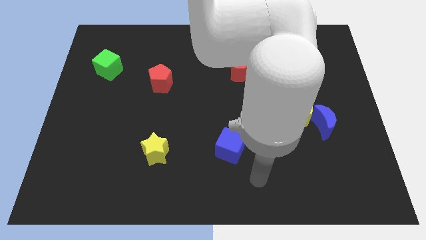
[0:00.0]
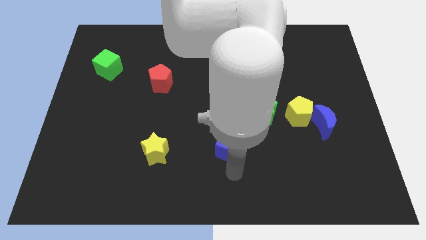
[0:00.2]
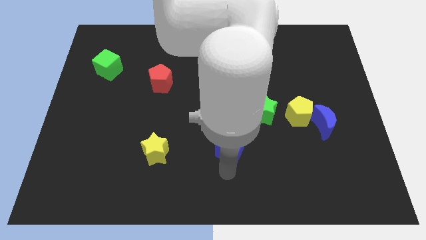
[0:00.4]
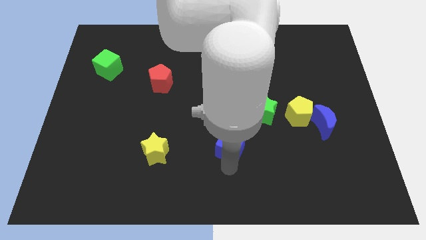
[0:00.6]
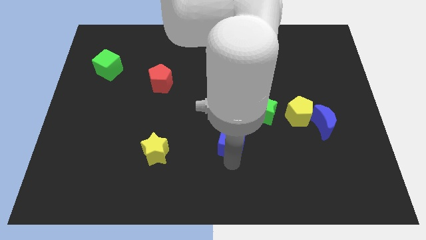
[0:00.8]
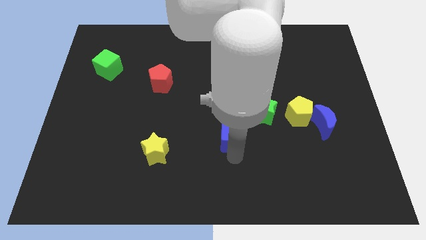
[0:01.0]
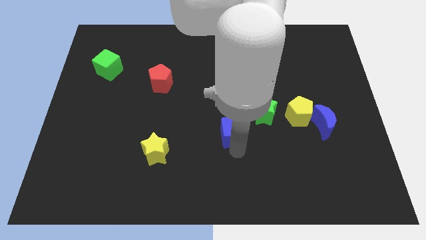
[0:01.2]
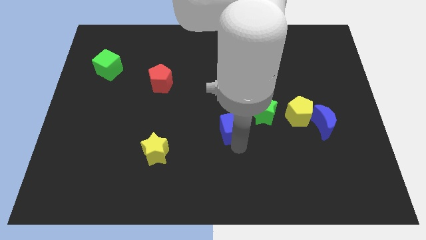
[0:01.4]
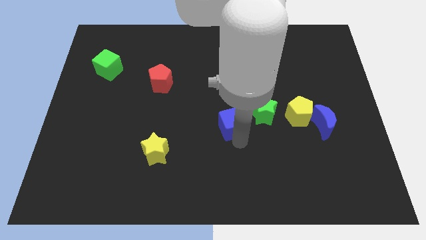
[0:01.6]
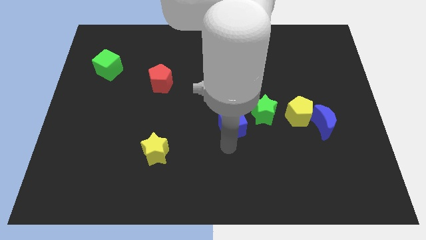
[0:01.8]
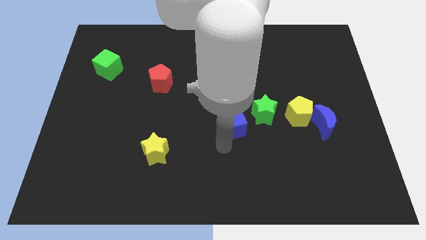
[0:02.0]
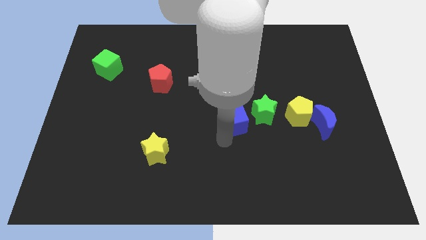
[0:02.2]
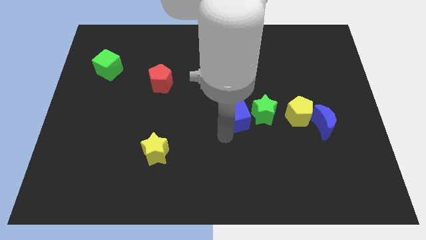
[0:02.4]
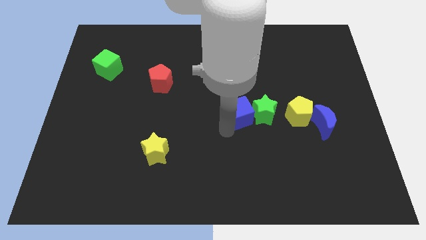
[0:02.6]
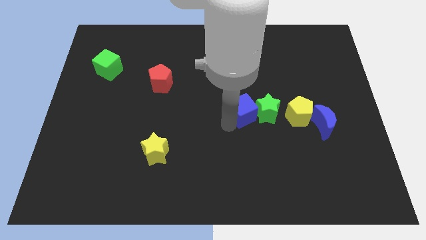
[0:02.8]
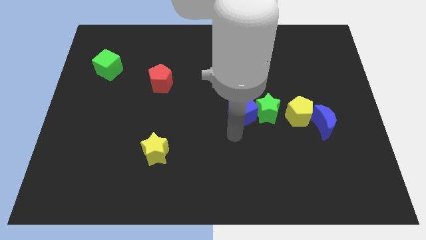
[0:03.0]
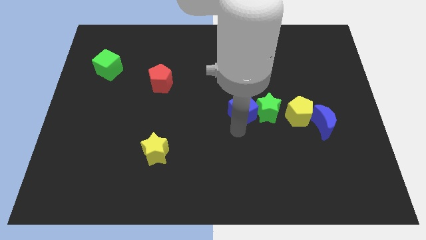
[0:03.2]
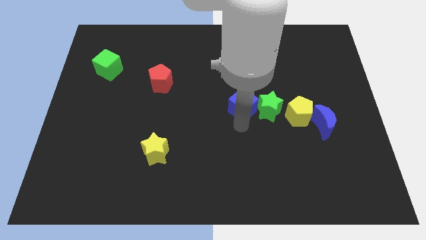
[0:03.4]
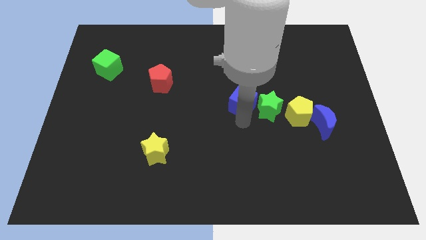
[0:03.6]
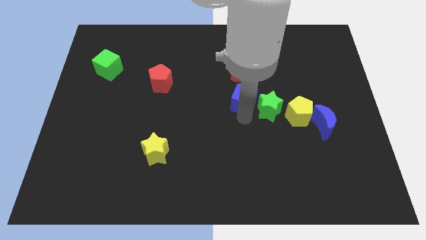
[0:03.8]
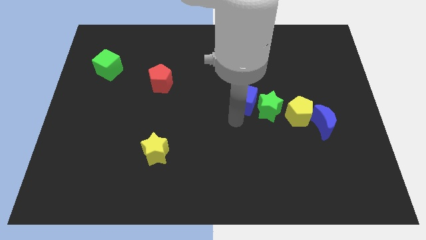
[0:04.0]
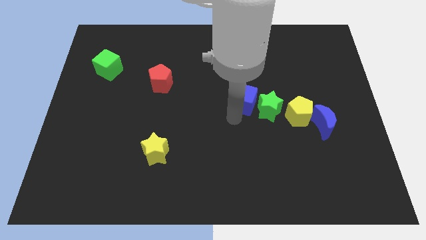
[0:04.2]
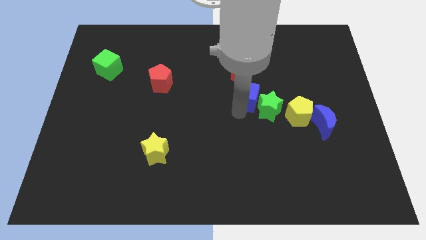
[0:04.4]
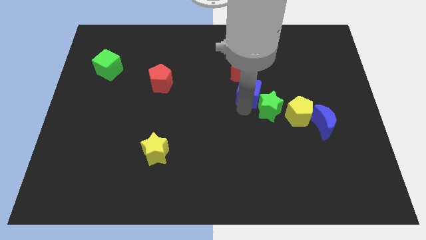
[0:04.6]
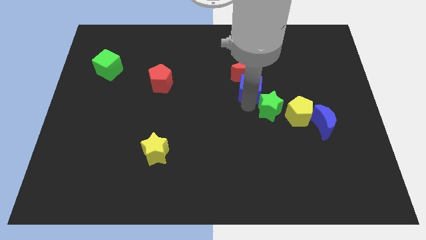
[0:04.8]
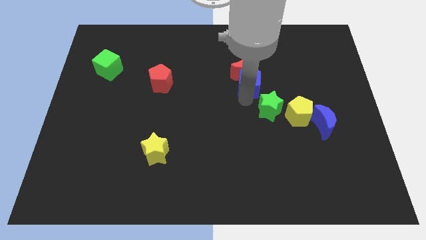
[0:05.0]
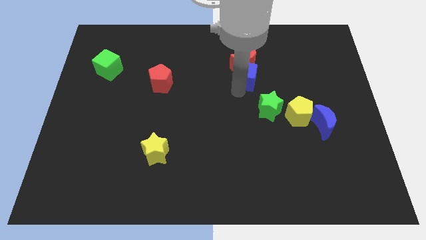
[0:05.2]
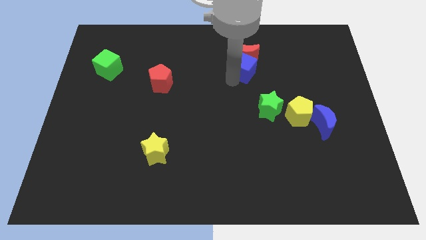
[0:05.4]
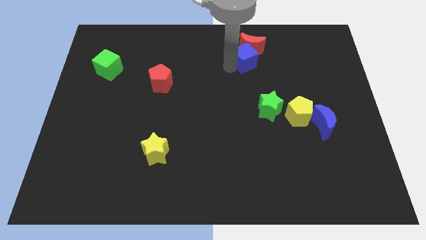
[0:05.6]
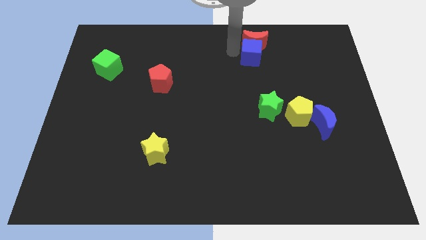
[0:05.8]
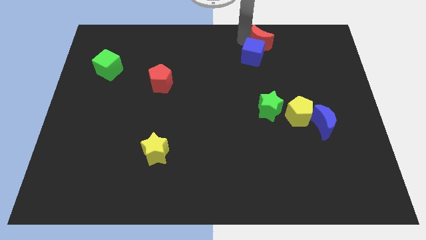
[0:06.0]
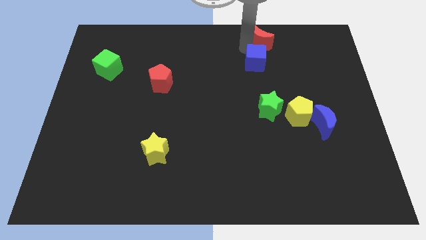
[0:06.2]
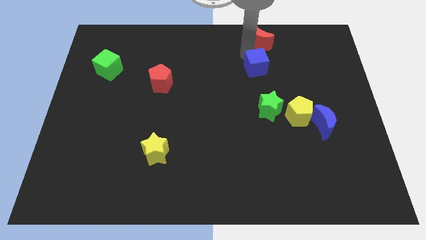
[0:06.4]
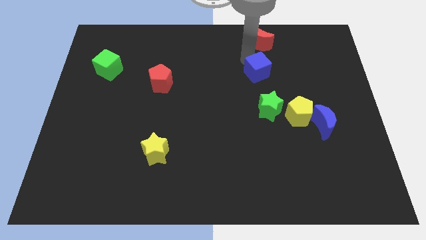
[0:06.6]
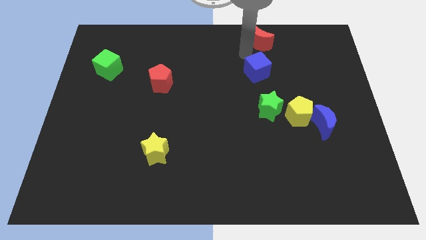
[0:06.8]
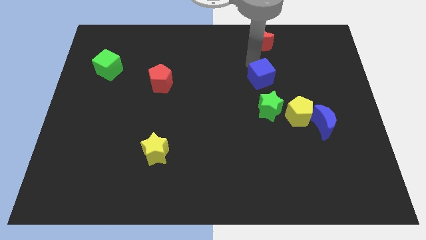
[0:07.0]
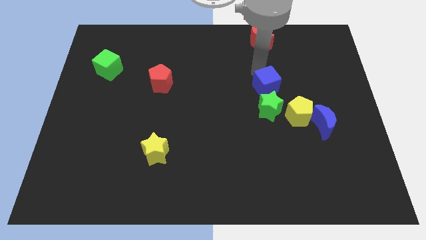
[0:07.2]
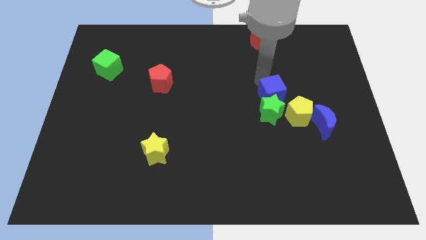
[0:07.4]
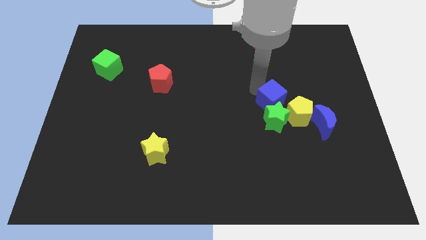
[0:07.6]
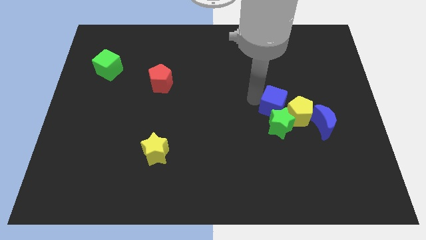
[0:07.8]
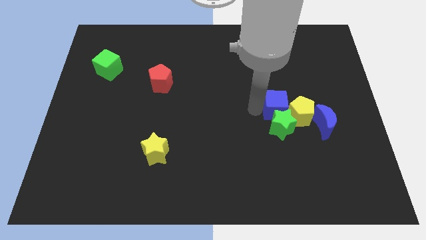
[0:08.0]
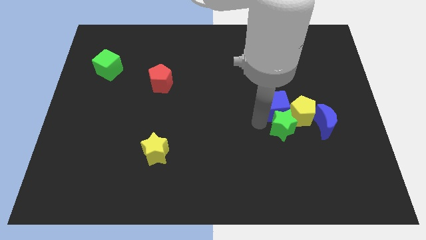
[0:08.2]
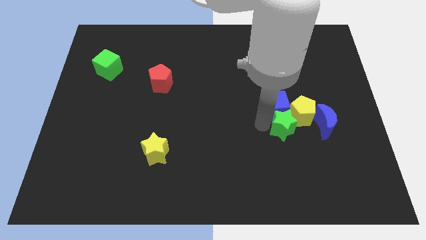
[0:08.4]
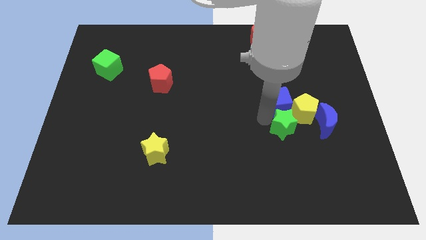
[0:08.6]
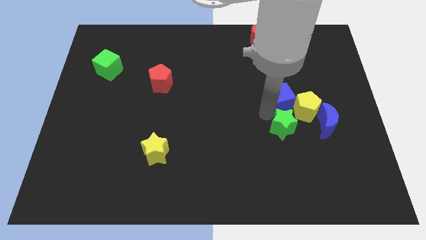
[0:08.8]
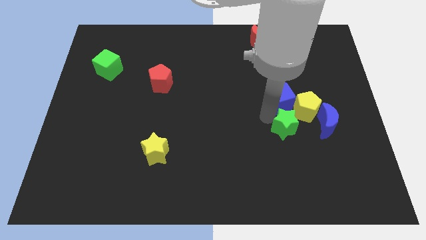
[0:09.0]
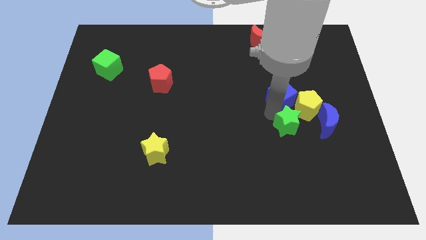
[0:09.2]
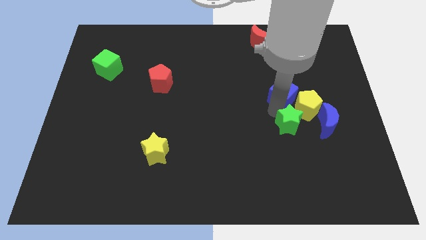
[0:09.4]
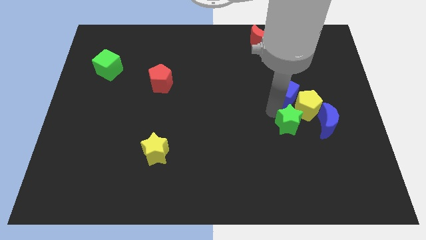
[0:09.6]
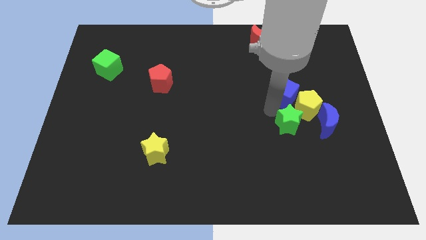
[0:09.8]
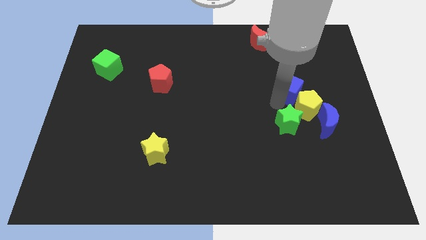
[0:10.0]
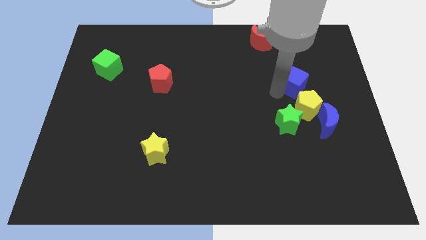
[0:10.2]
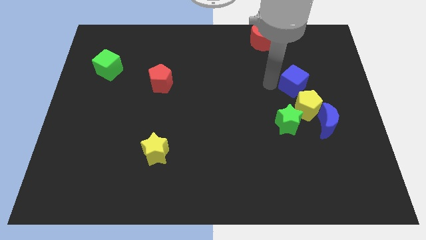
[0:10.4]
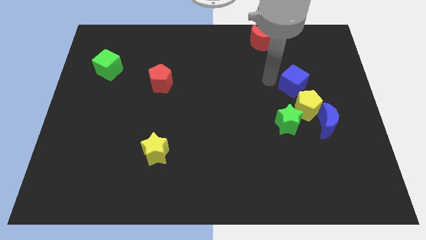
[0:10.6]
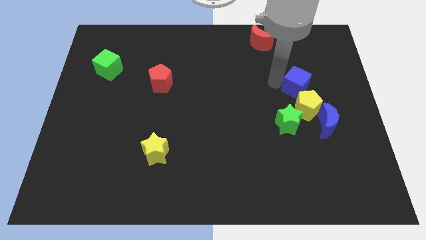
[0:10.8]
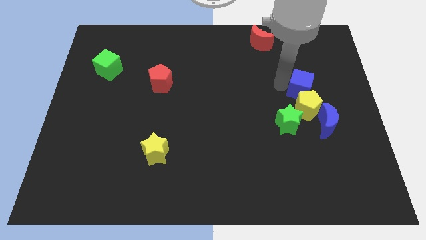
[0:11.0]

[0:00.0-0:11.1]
slide the blue cube above the blue moon

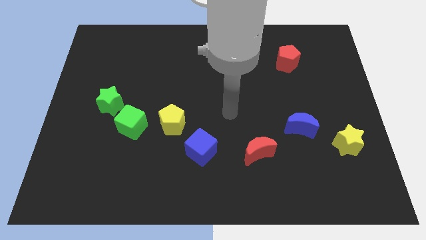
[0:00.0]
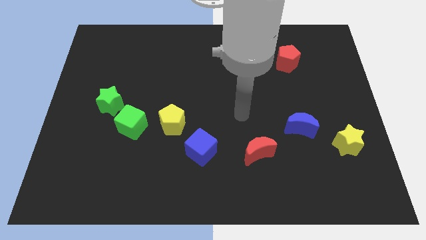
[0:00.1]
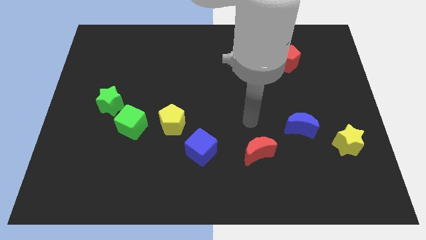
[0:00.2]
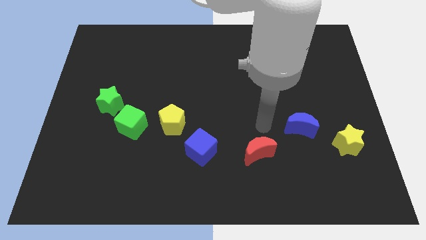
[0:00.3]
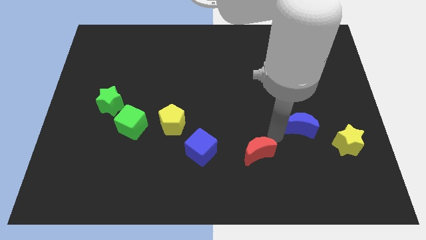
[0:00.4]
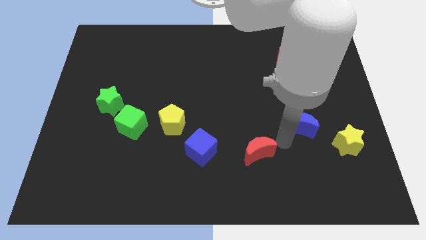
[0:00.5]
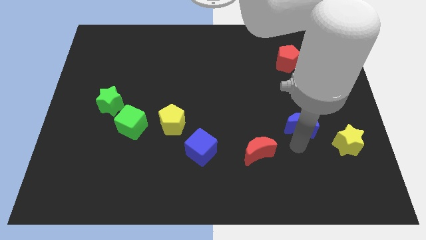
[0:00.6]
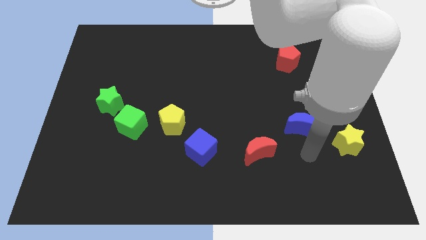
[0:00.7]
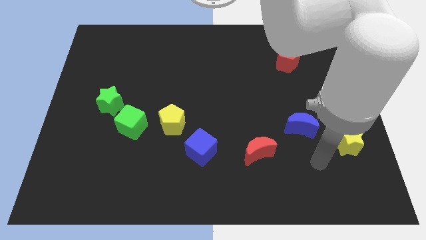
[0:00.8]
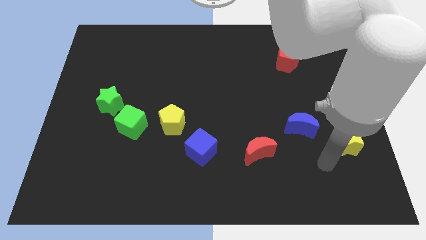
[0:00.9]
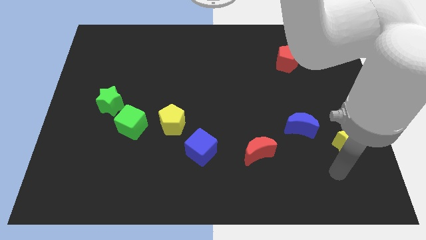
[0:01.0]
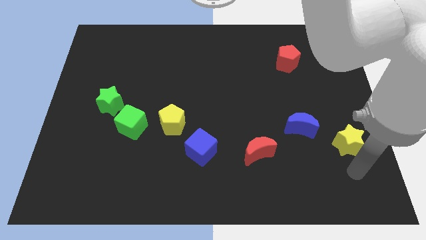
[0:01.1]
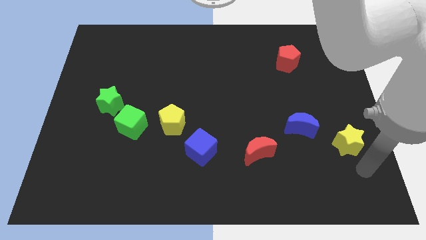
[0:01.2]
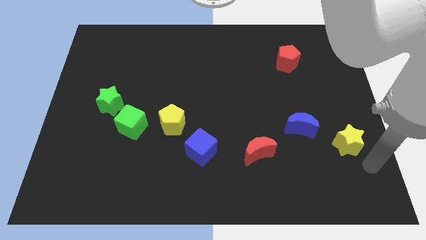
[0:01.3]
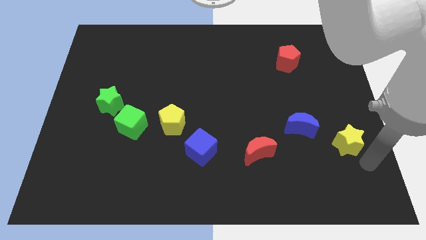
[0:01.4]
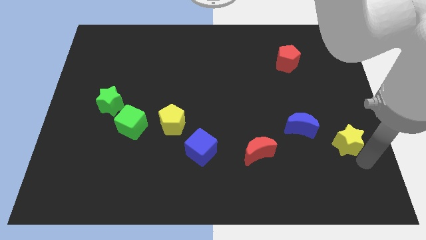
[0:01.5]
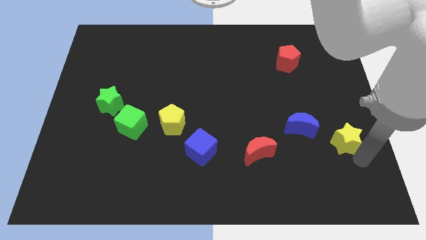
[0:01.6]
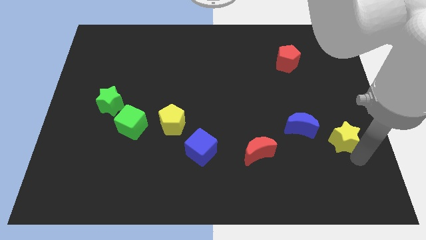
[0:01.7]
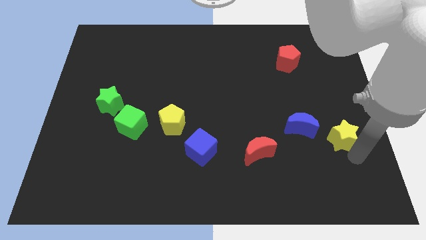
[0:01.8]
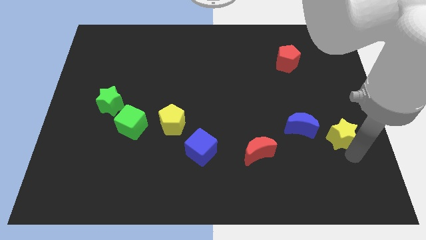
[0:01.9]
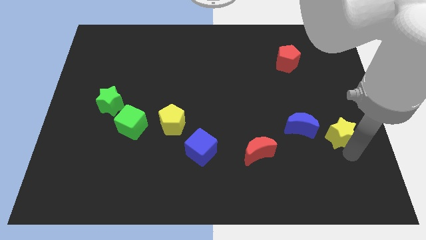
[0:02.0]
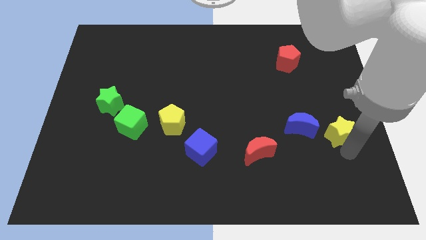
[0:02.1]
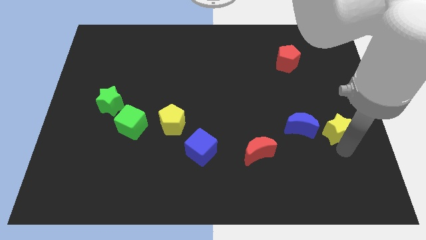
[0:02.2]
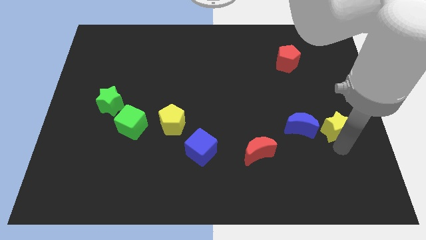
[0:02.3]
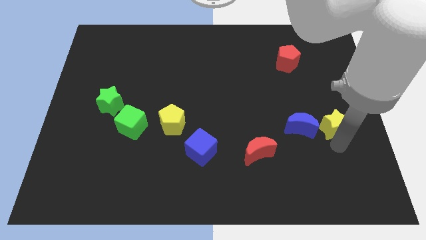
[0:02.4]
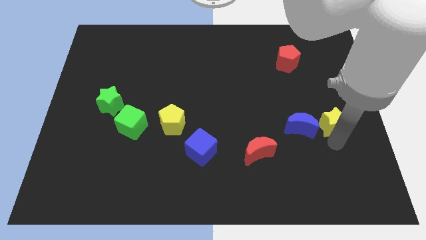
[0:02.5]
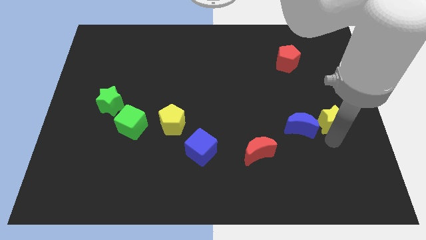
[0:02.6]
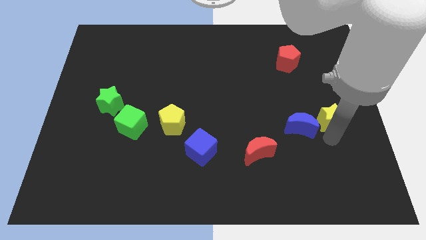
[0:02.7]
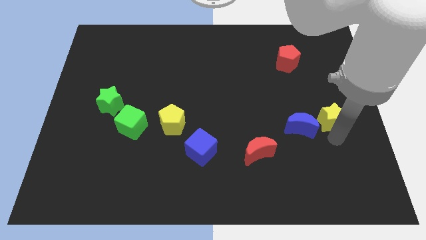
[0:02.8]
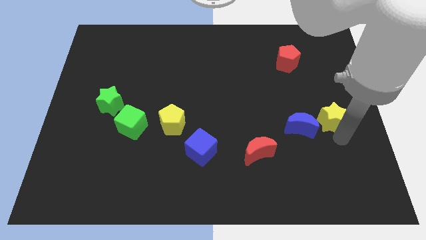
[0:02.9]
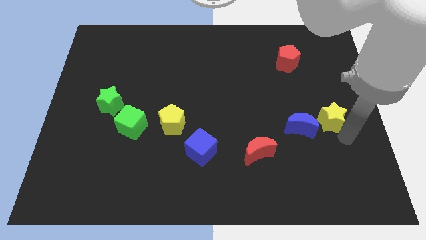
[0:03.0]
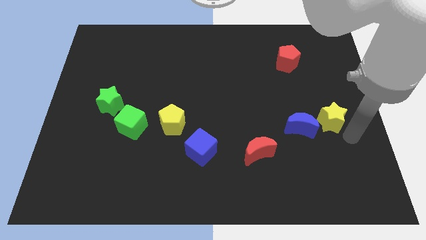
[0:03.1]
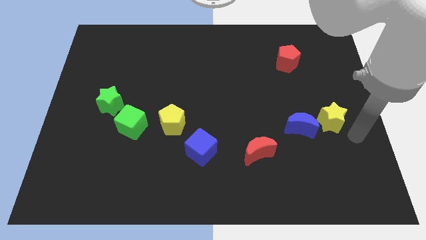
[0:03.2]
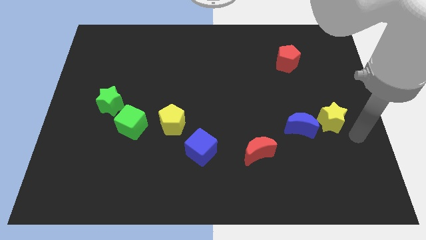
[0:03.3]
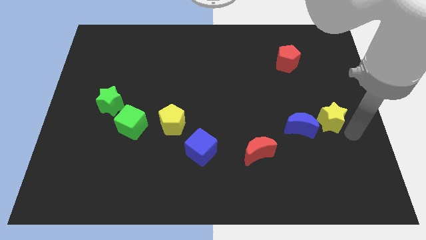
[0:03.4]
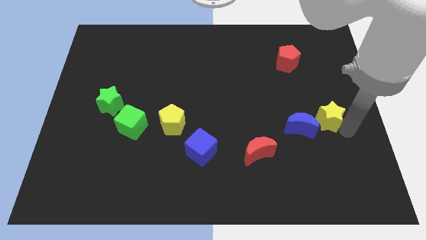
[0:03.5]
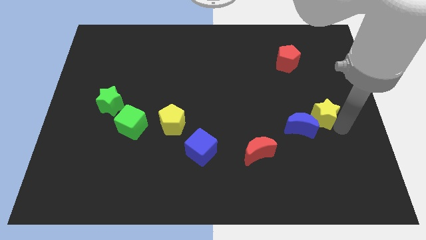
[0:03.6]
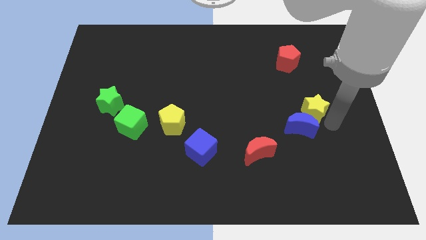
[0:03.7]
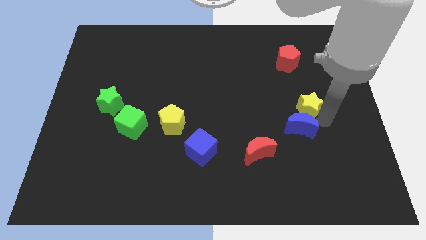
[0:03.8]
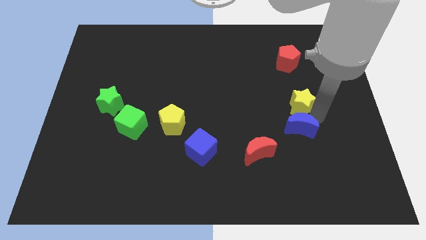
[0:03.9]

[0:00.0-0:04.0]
slide the yellow star to the bottom side of the red pentagon
